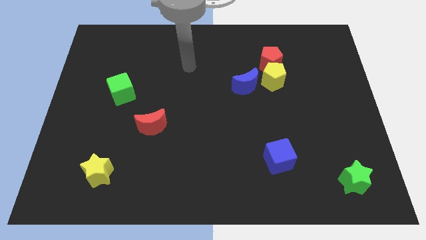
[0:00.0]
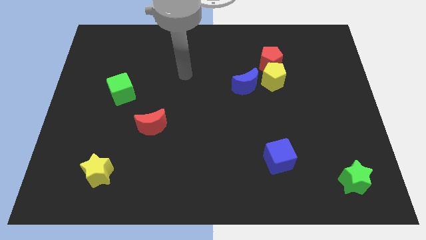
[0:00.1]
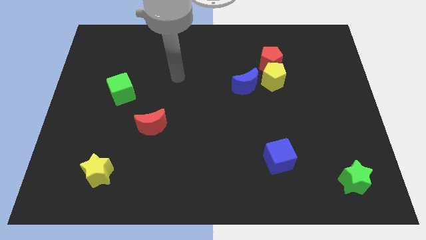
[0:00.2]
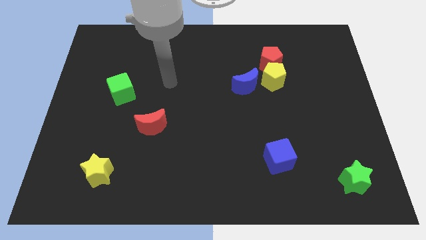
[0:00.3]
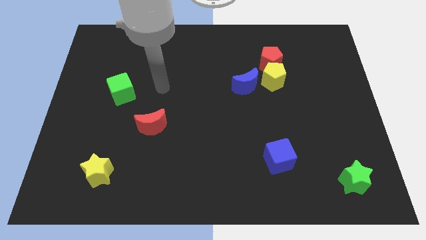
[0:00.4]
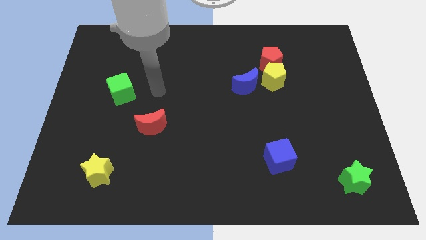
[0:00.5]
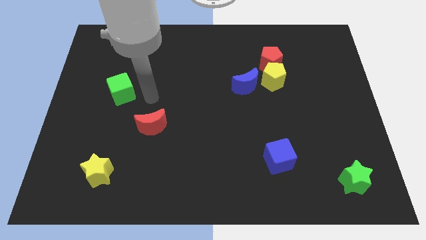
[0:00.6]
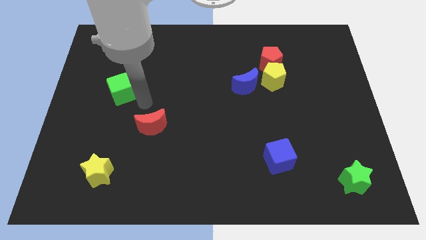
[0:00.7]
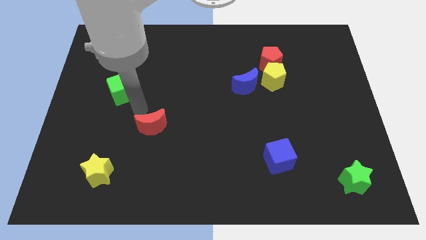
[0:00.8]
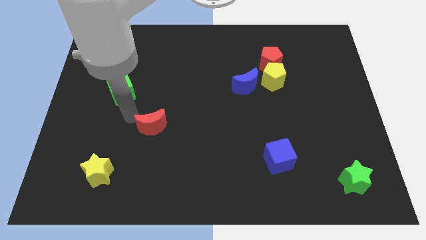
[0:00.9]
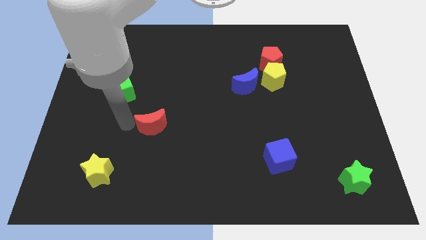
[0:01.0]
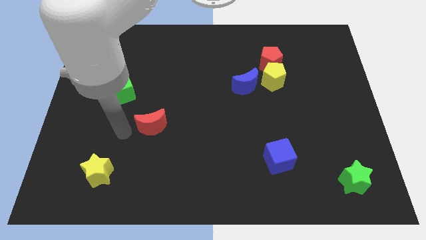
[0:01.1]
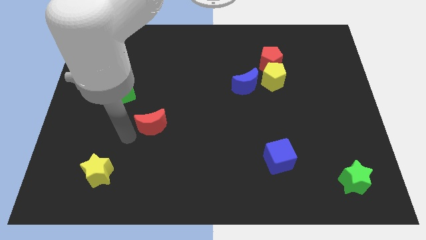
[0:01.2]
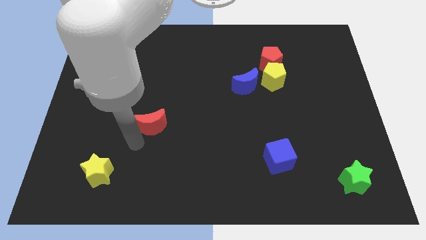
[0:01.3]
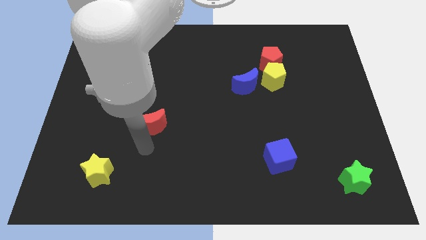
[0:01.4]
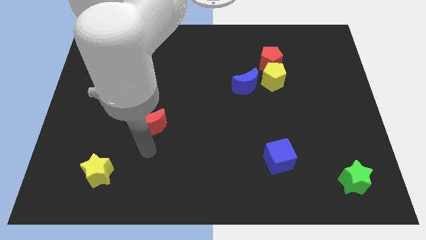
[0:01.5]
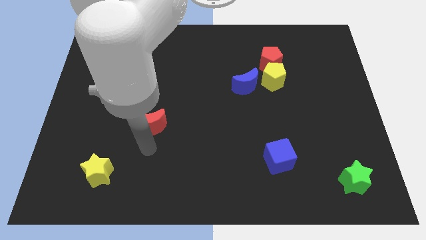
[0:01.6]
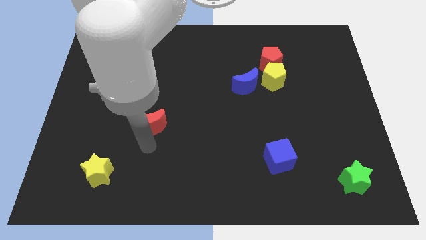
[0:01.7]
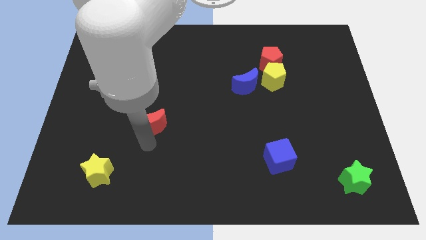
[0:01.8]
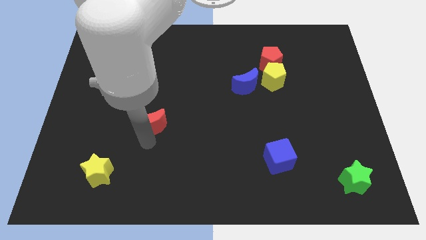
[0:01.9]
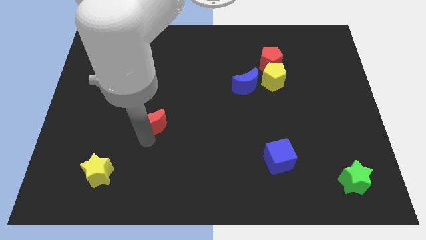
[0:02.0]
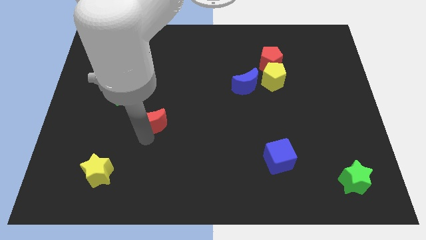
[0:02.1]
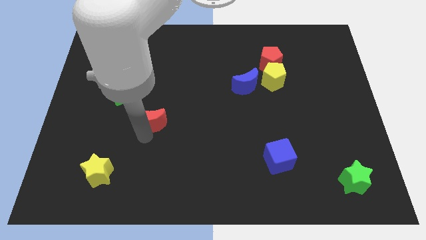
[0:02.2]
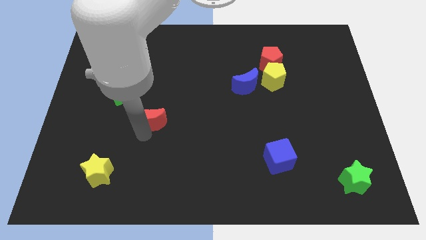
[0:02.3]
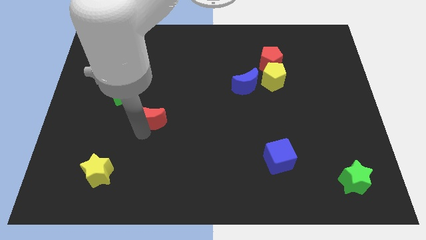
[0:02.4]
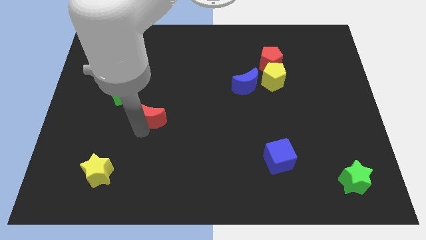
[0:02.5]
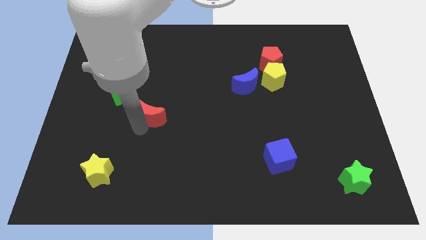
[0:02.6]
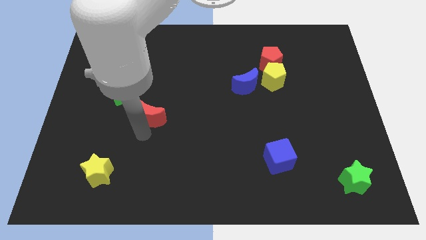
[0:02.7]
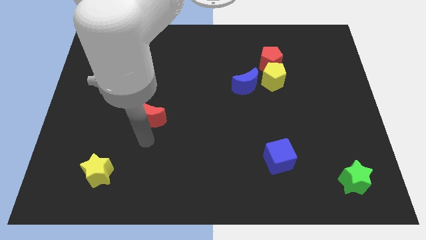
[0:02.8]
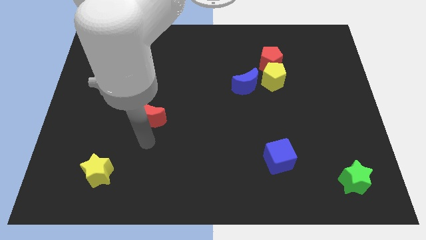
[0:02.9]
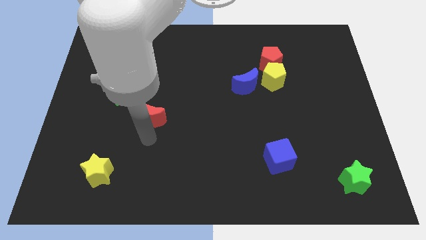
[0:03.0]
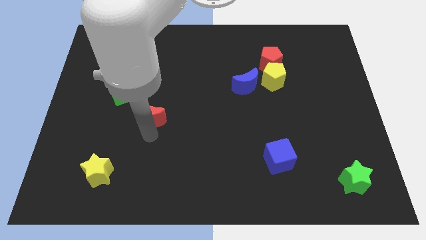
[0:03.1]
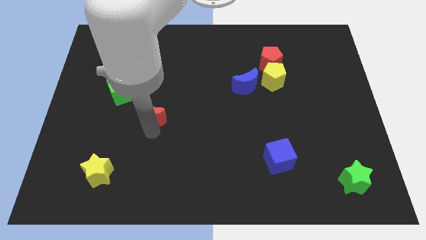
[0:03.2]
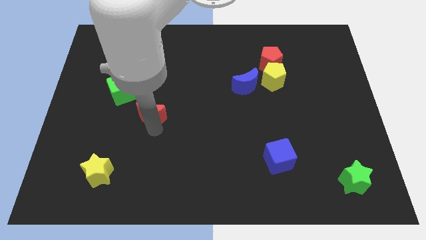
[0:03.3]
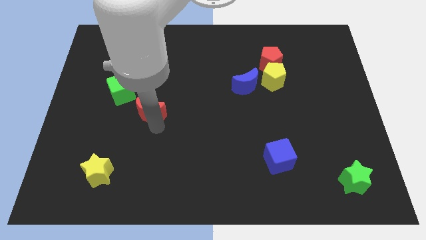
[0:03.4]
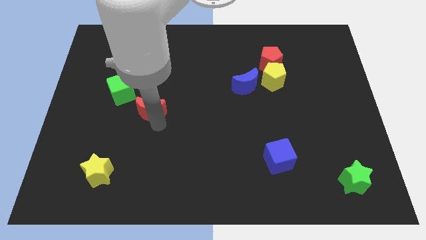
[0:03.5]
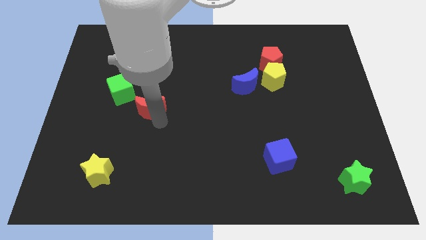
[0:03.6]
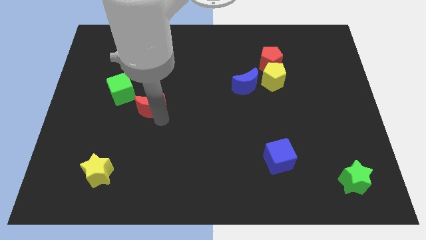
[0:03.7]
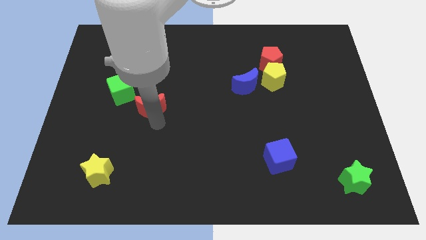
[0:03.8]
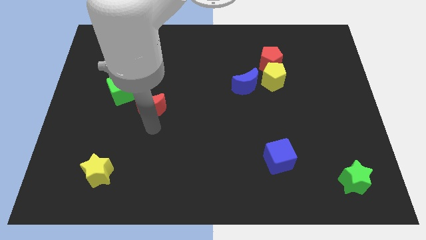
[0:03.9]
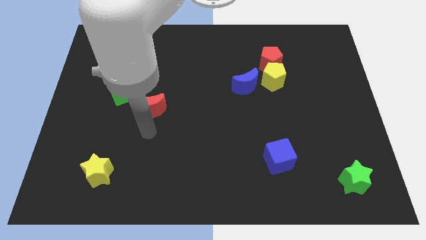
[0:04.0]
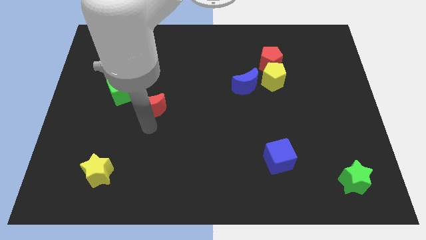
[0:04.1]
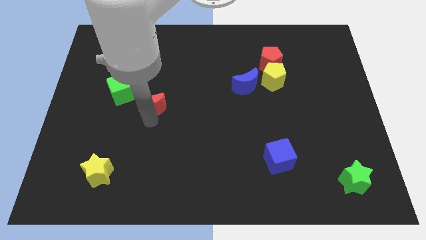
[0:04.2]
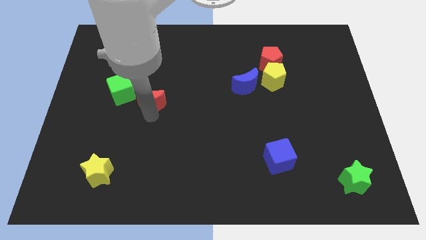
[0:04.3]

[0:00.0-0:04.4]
move the red moon a little up

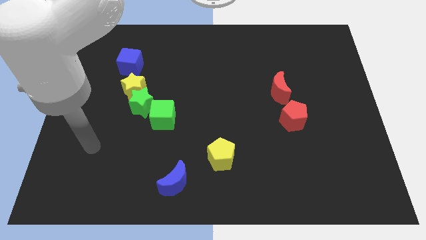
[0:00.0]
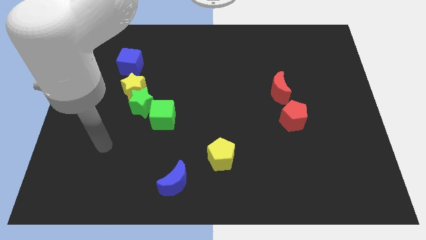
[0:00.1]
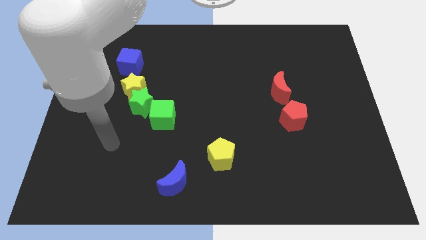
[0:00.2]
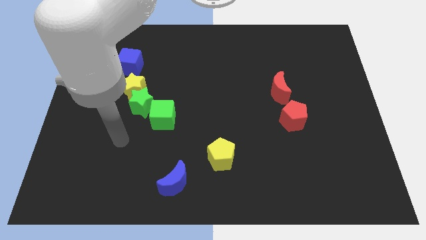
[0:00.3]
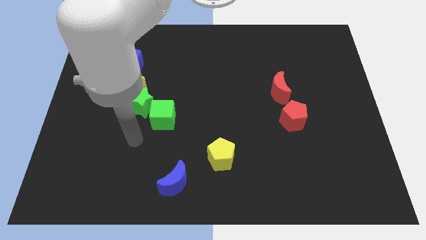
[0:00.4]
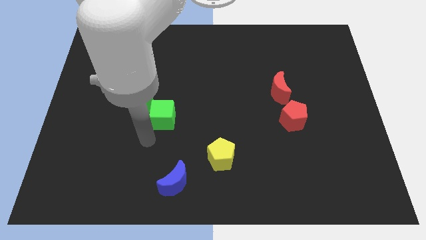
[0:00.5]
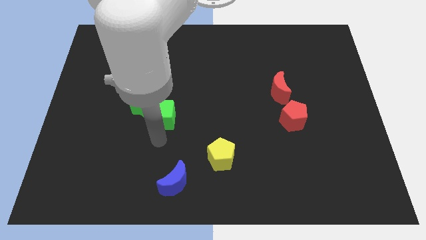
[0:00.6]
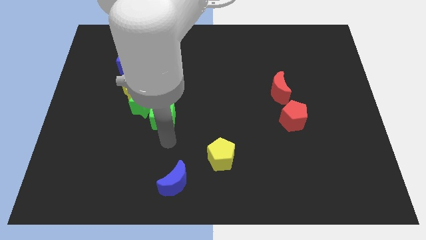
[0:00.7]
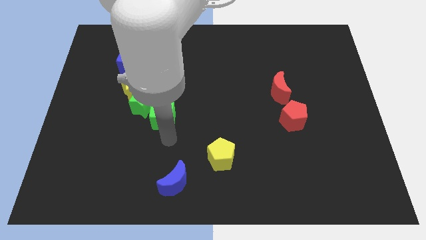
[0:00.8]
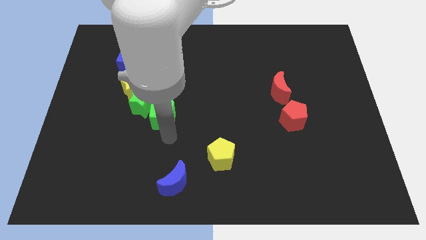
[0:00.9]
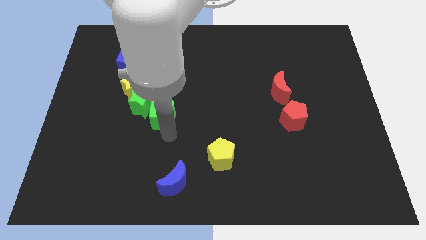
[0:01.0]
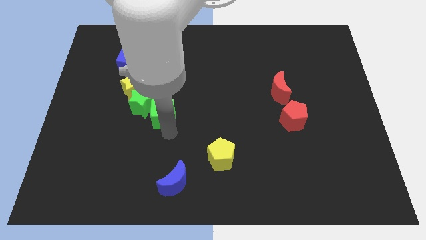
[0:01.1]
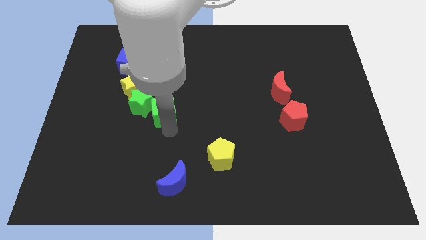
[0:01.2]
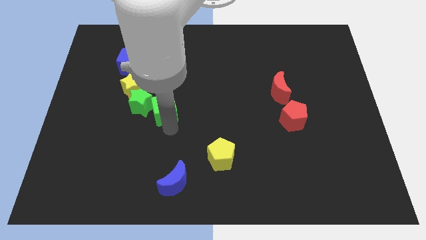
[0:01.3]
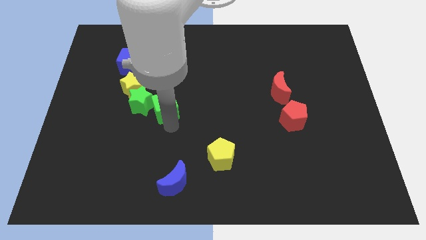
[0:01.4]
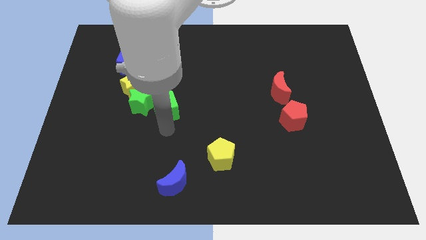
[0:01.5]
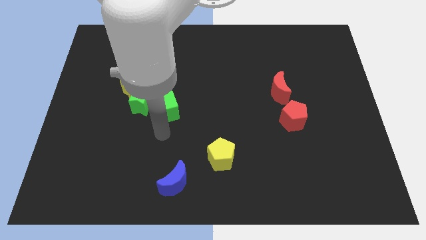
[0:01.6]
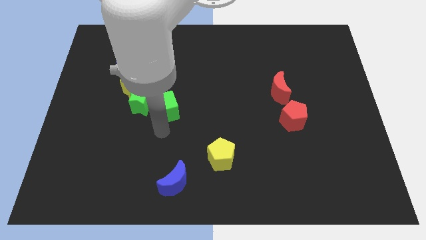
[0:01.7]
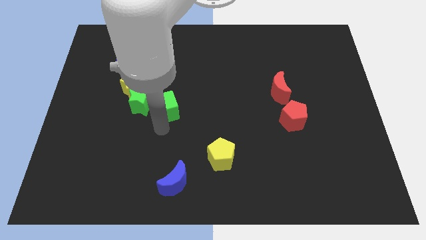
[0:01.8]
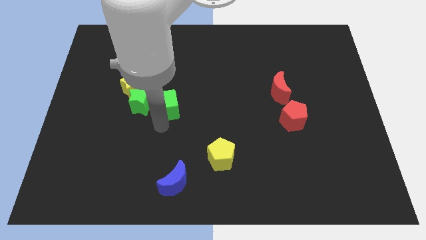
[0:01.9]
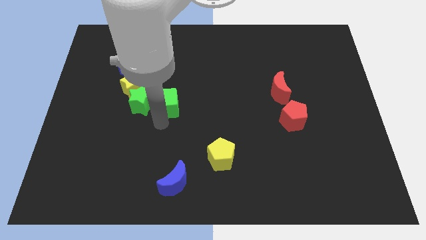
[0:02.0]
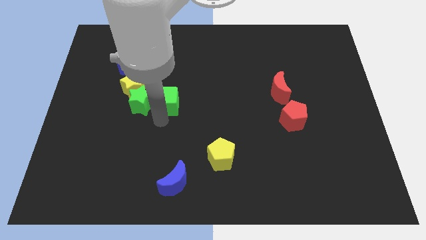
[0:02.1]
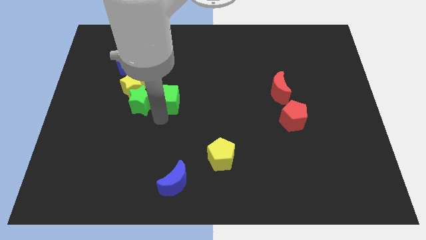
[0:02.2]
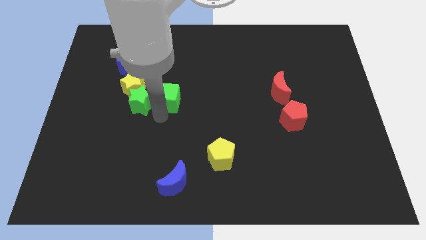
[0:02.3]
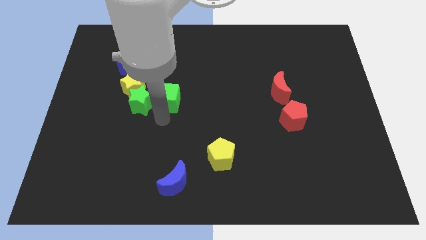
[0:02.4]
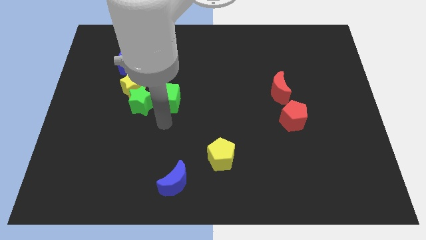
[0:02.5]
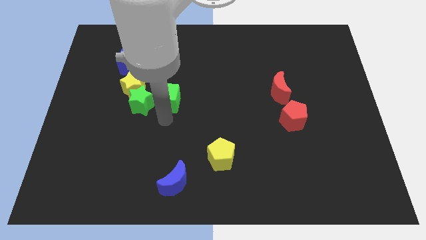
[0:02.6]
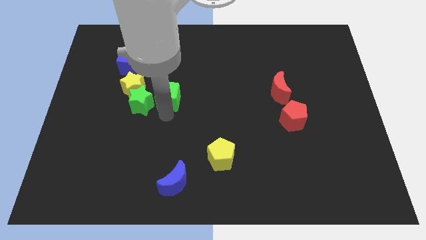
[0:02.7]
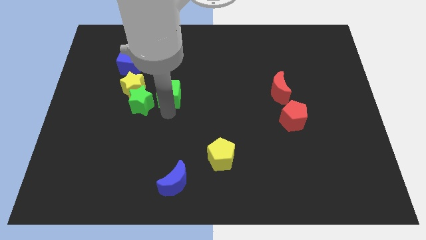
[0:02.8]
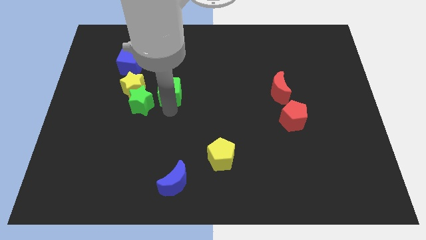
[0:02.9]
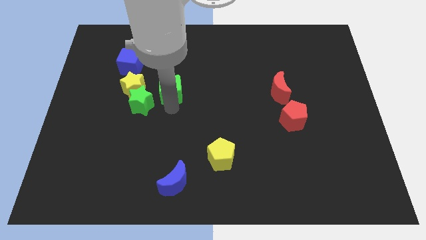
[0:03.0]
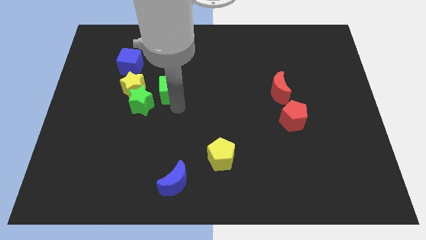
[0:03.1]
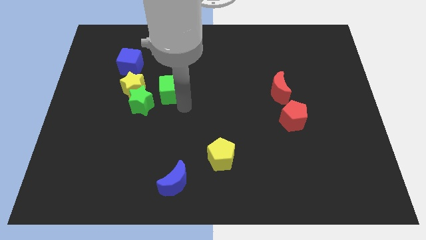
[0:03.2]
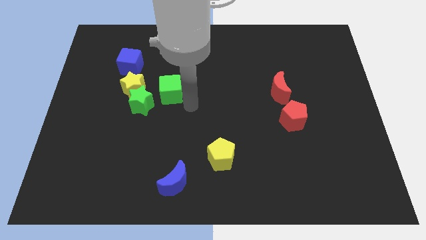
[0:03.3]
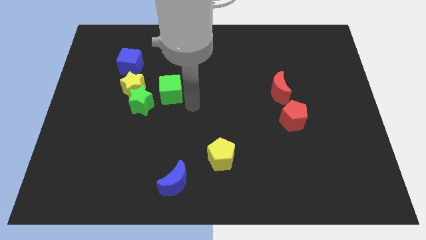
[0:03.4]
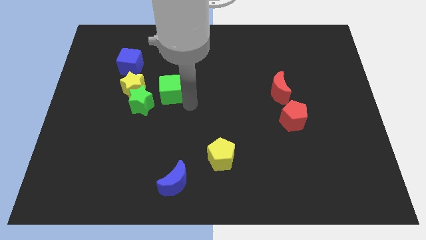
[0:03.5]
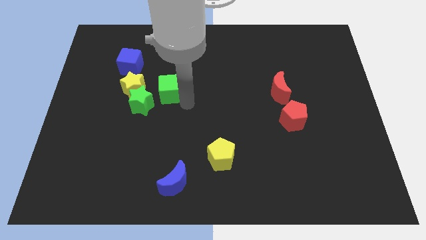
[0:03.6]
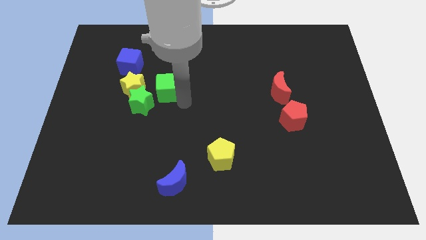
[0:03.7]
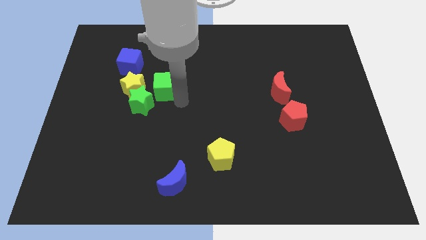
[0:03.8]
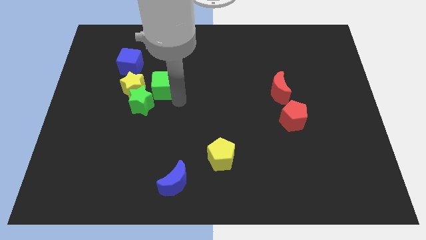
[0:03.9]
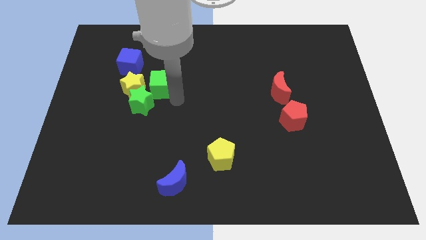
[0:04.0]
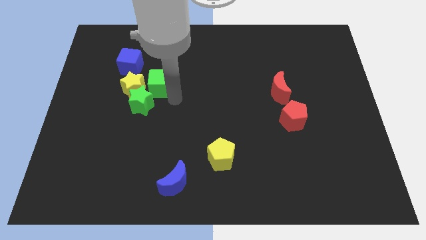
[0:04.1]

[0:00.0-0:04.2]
move the green cube upwards and then left somewhat
